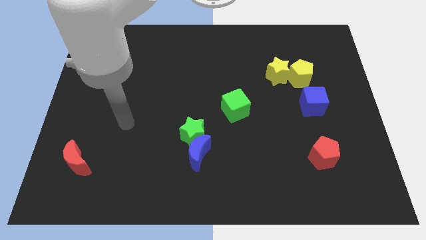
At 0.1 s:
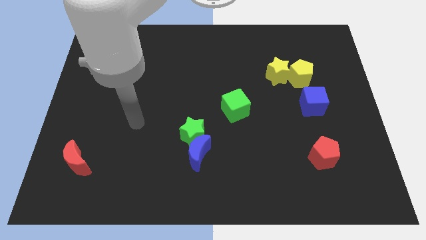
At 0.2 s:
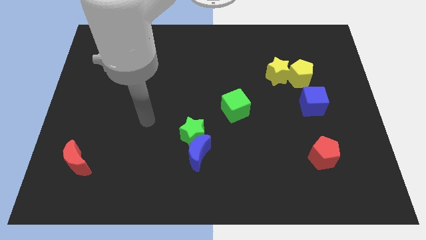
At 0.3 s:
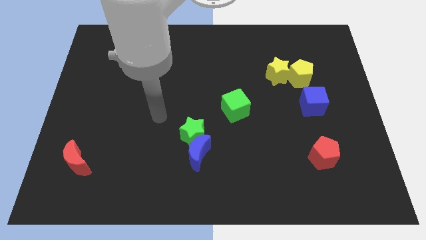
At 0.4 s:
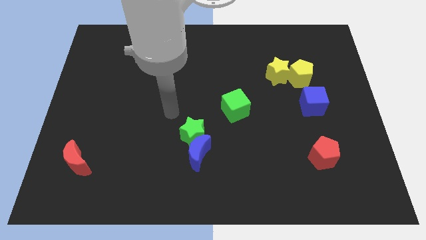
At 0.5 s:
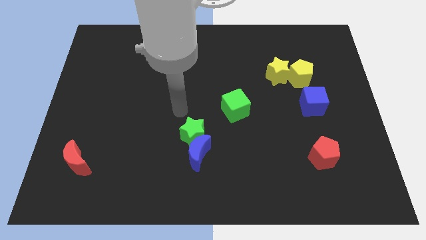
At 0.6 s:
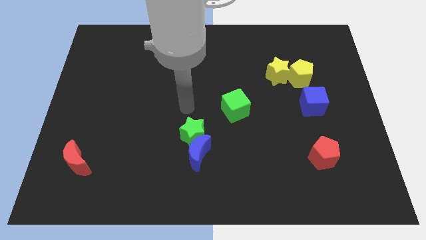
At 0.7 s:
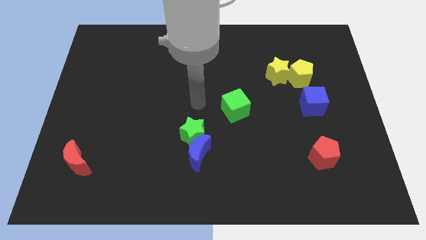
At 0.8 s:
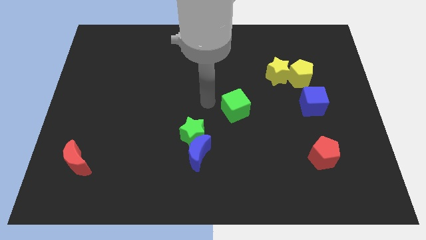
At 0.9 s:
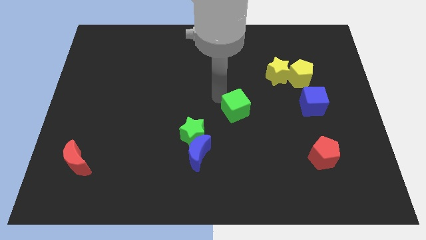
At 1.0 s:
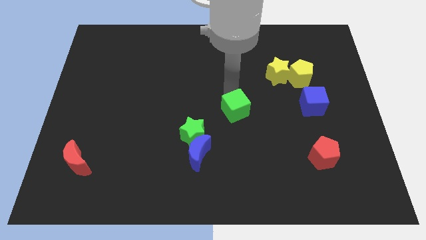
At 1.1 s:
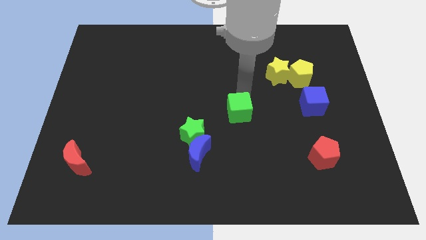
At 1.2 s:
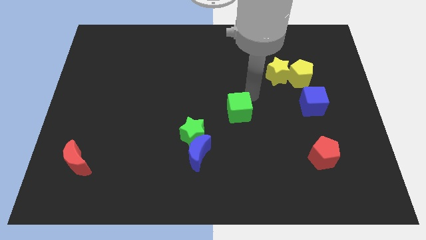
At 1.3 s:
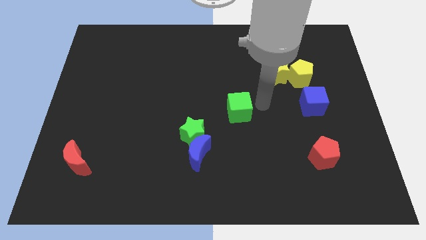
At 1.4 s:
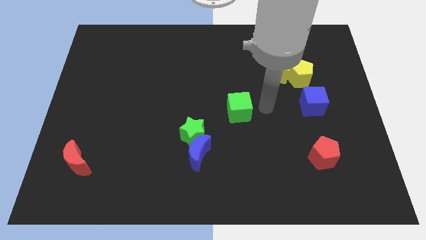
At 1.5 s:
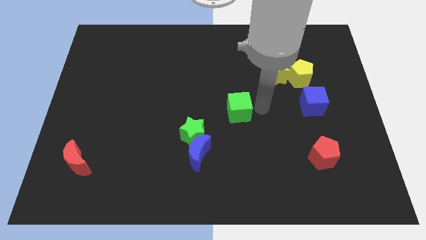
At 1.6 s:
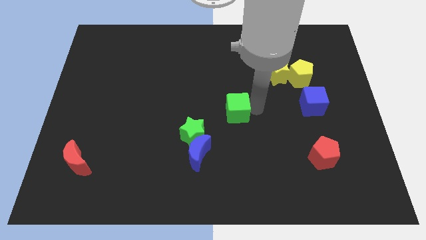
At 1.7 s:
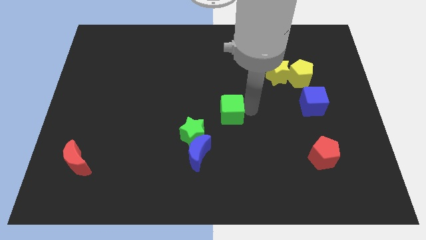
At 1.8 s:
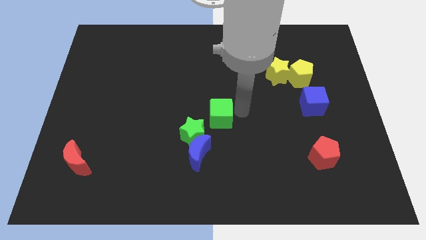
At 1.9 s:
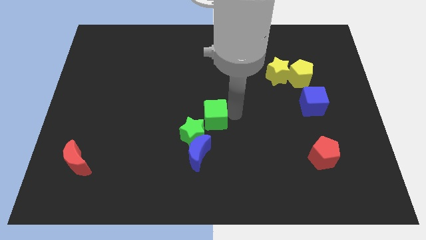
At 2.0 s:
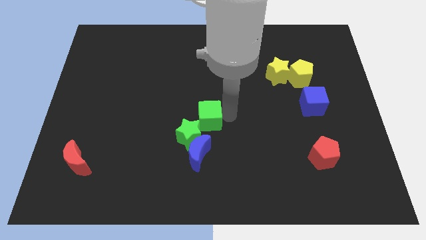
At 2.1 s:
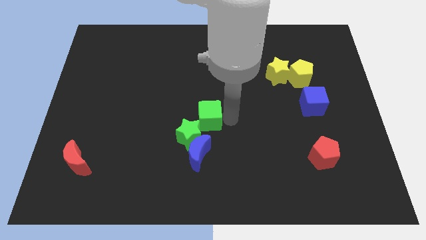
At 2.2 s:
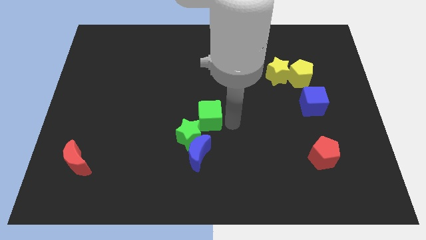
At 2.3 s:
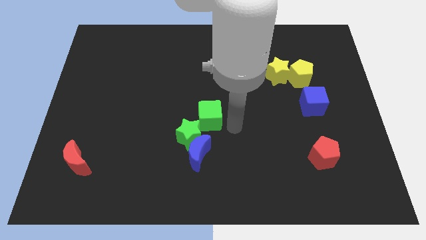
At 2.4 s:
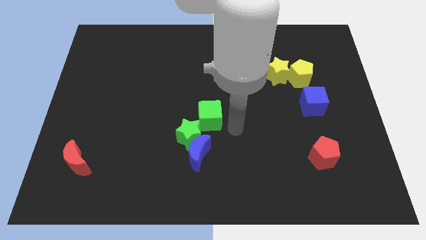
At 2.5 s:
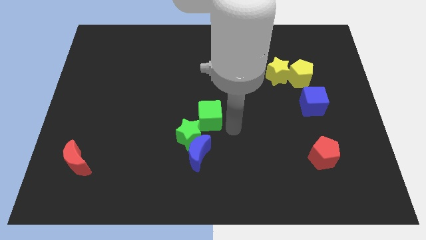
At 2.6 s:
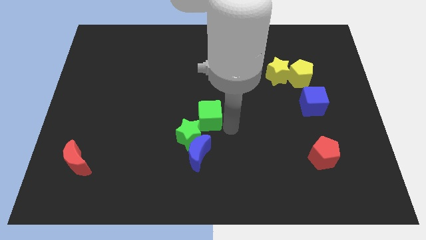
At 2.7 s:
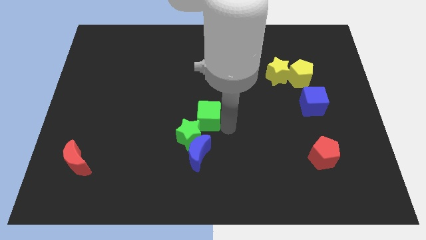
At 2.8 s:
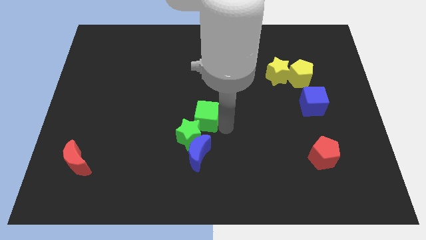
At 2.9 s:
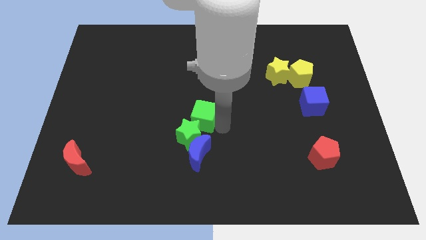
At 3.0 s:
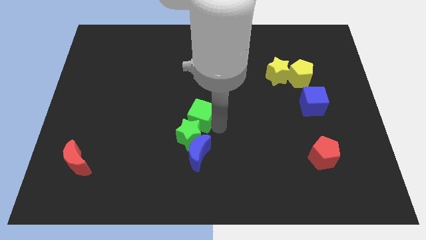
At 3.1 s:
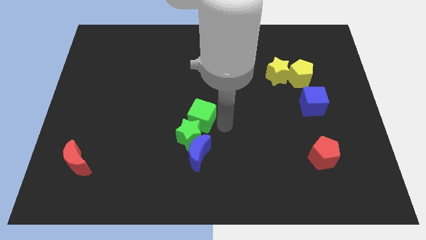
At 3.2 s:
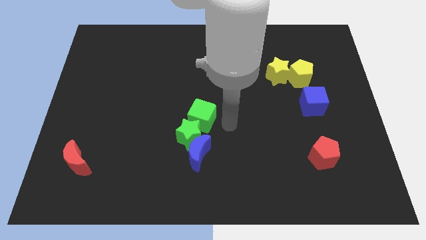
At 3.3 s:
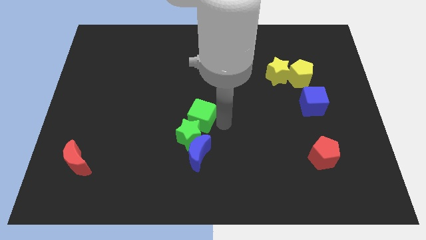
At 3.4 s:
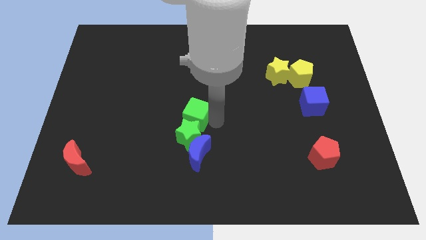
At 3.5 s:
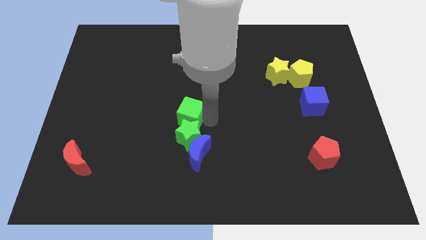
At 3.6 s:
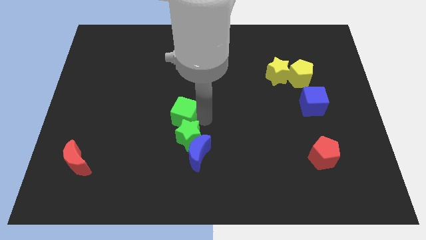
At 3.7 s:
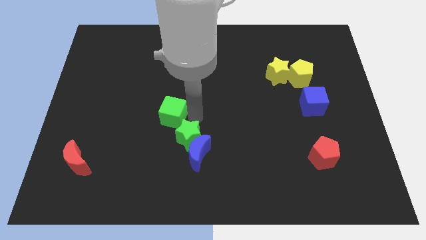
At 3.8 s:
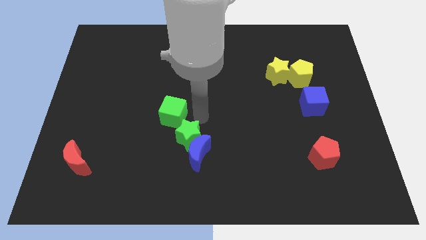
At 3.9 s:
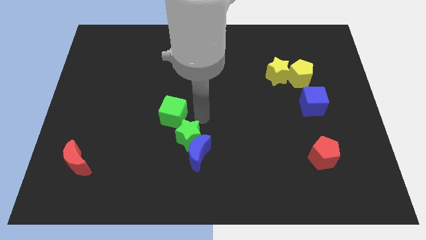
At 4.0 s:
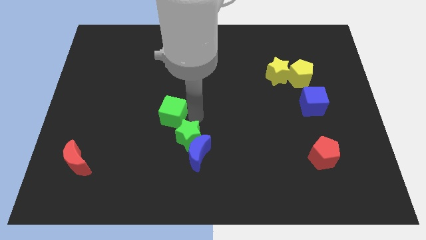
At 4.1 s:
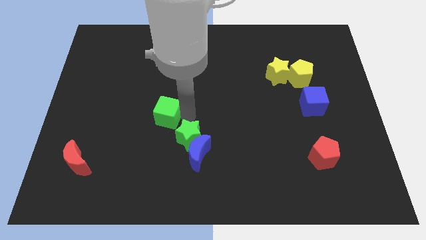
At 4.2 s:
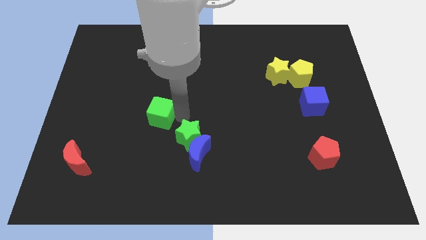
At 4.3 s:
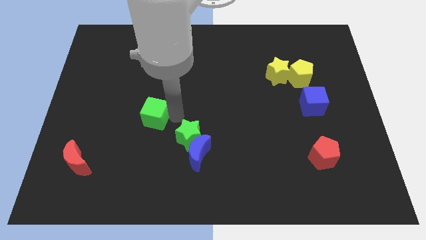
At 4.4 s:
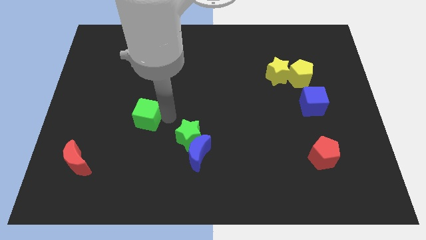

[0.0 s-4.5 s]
slide the green cube left

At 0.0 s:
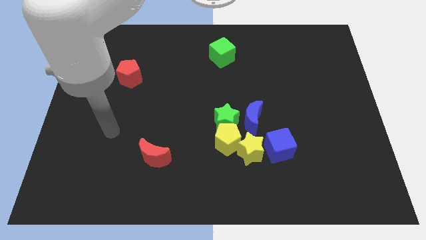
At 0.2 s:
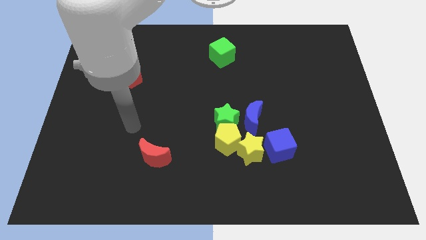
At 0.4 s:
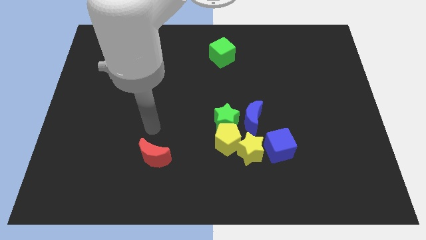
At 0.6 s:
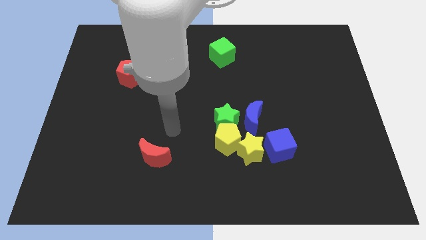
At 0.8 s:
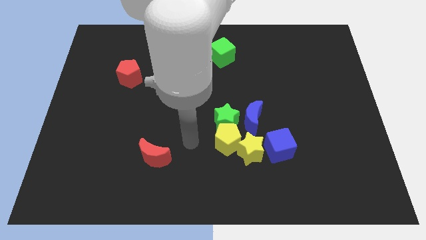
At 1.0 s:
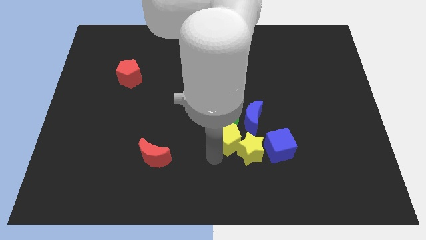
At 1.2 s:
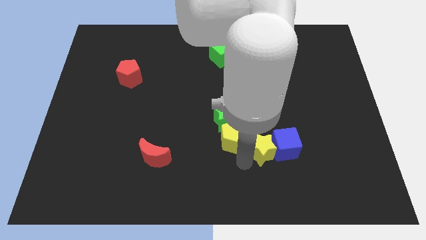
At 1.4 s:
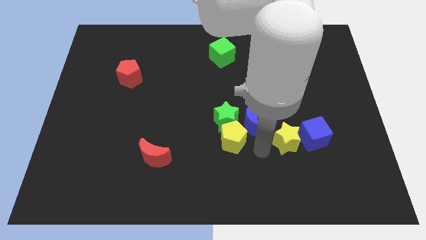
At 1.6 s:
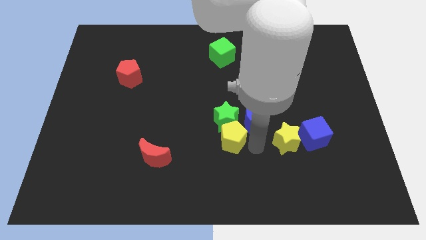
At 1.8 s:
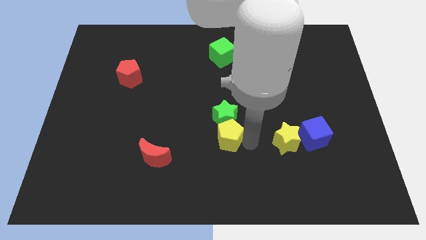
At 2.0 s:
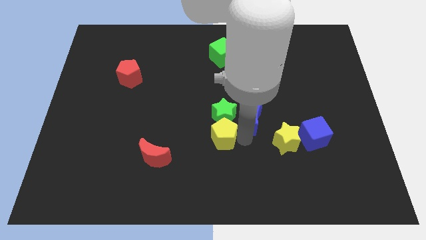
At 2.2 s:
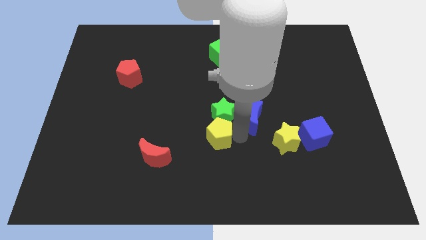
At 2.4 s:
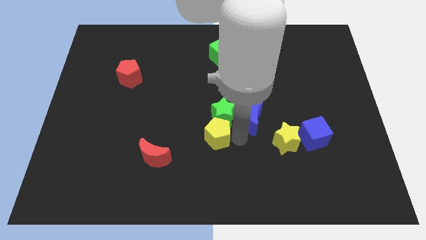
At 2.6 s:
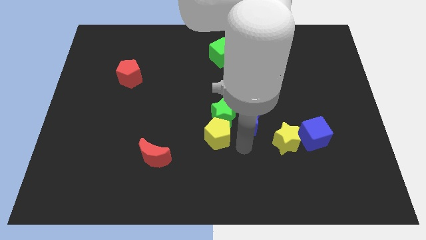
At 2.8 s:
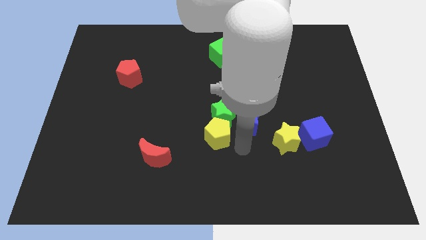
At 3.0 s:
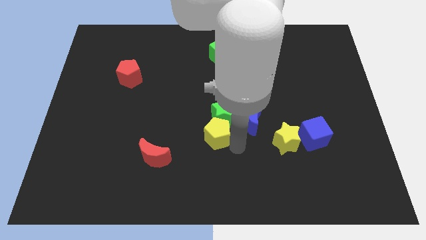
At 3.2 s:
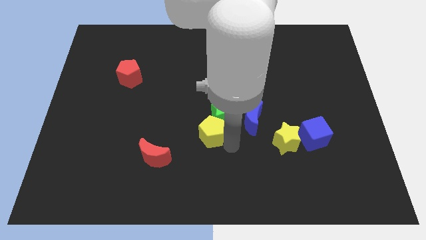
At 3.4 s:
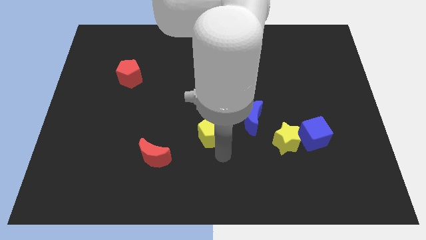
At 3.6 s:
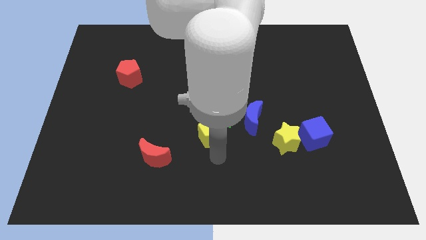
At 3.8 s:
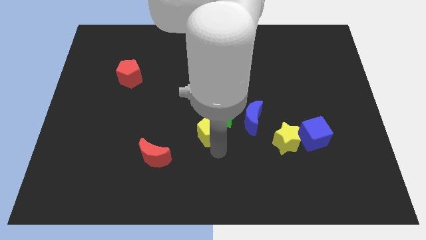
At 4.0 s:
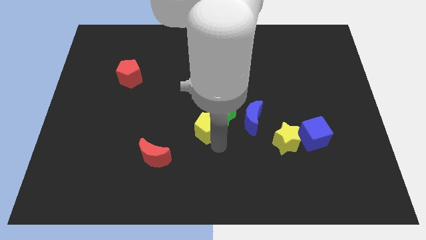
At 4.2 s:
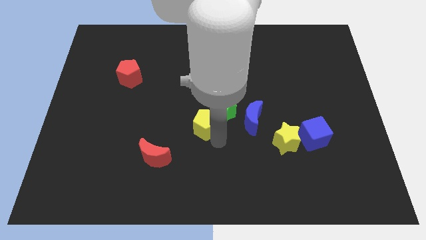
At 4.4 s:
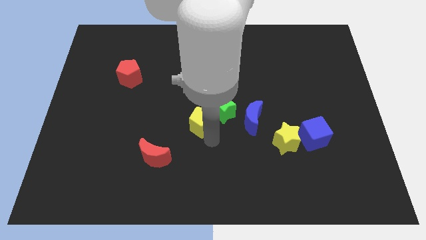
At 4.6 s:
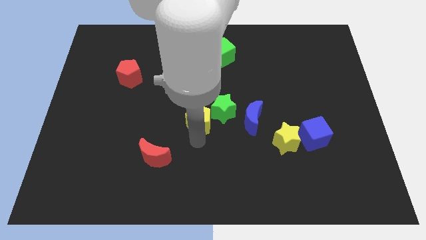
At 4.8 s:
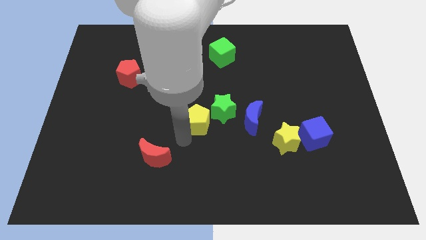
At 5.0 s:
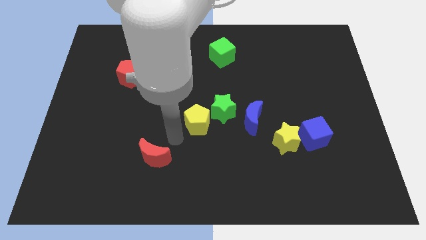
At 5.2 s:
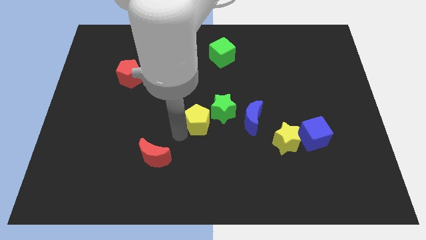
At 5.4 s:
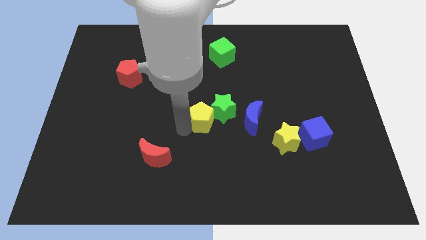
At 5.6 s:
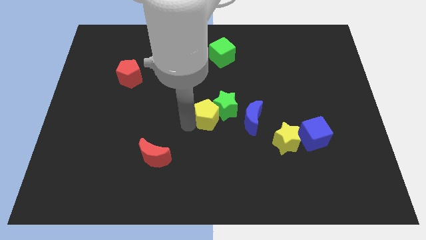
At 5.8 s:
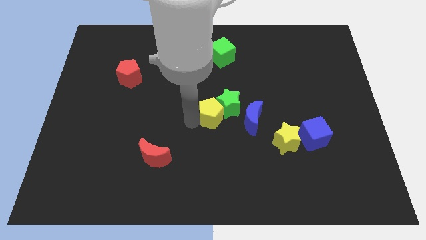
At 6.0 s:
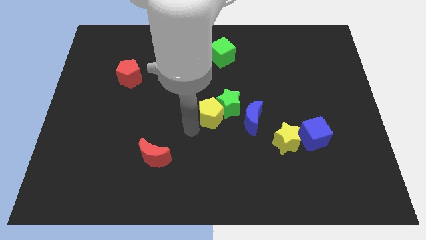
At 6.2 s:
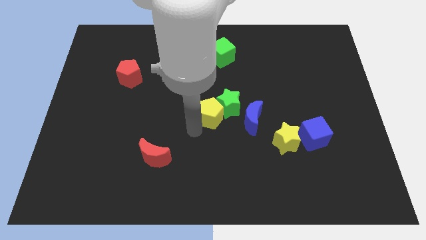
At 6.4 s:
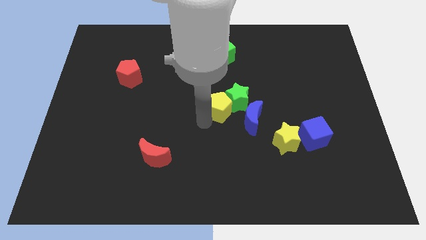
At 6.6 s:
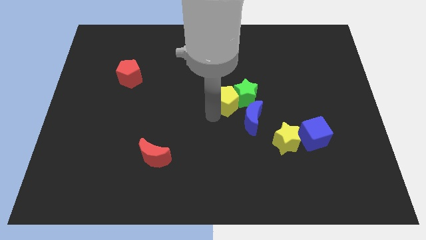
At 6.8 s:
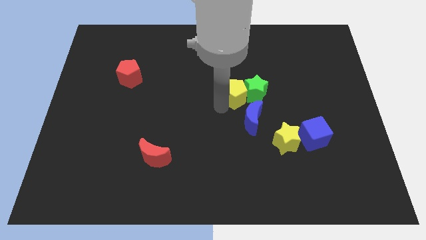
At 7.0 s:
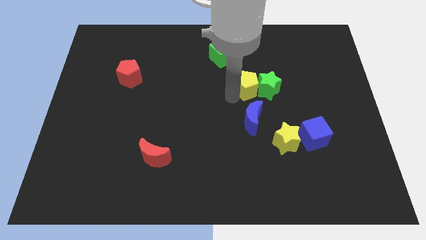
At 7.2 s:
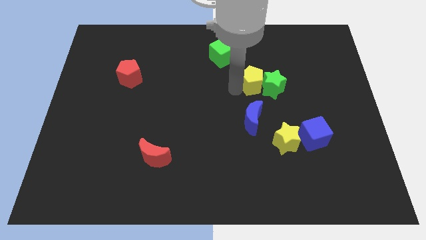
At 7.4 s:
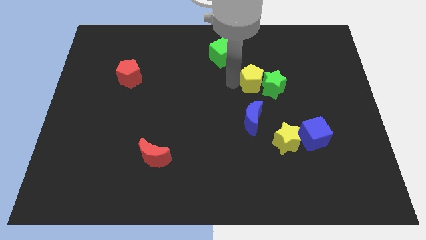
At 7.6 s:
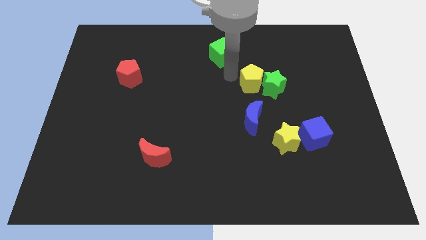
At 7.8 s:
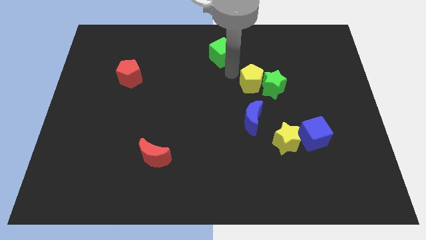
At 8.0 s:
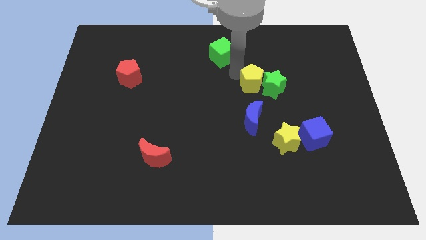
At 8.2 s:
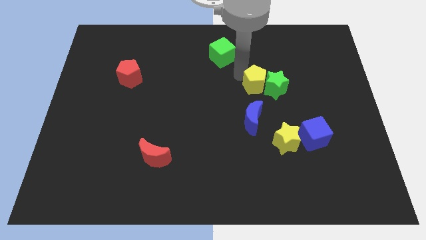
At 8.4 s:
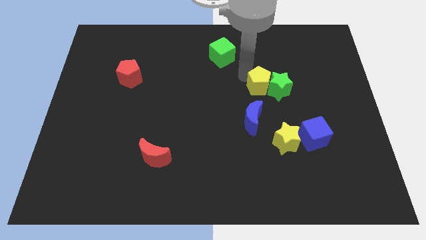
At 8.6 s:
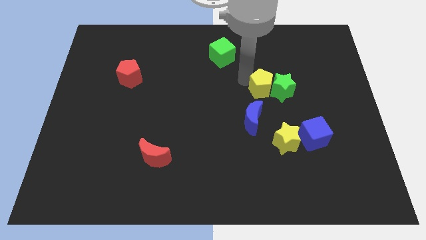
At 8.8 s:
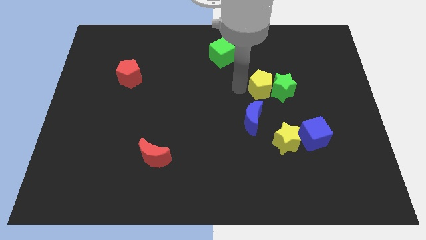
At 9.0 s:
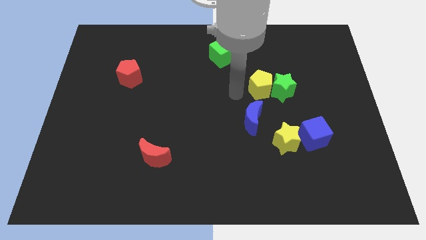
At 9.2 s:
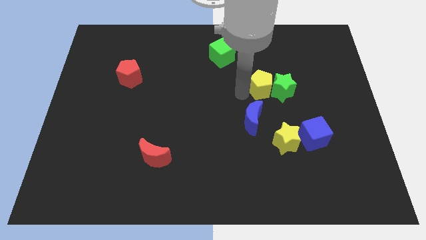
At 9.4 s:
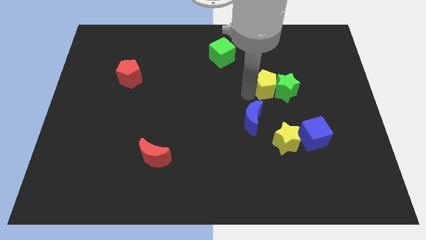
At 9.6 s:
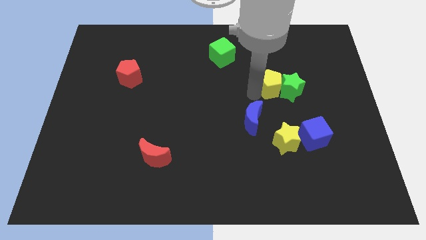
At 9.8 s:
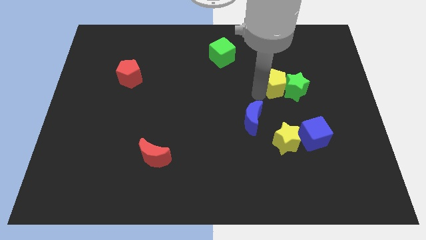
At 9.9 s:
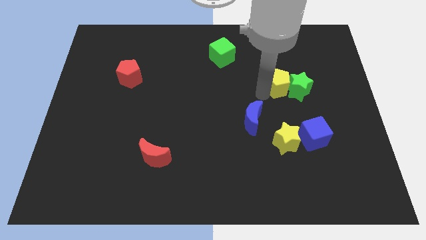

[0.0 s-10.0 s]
move the yellow pentagon diagonally up and right
